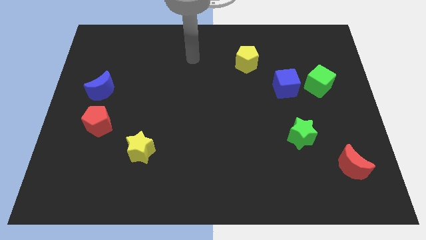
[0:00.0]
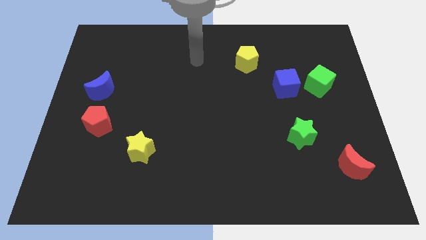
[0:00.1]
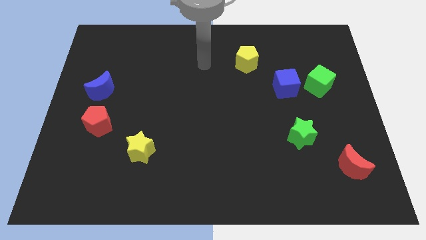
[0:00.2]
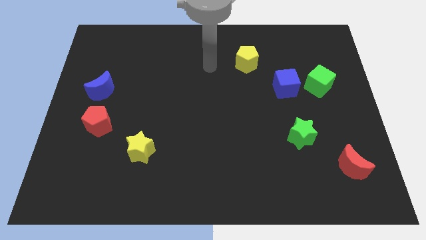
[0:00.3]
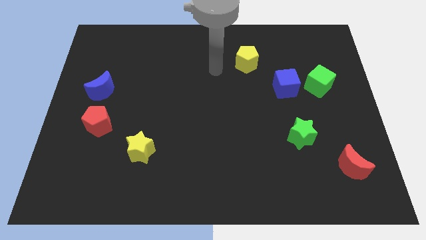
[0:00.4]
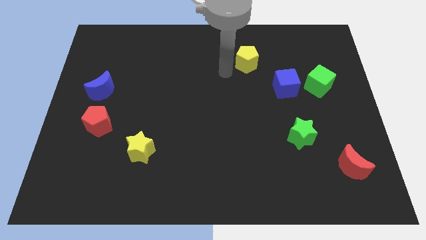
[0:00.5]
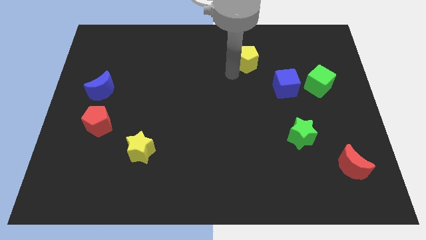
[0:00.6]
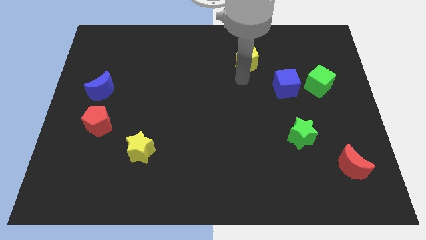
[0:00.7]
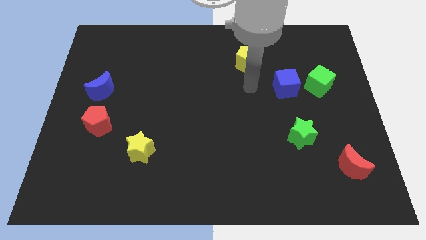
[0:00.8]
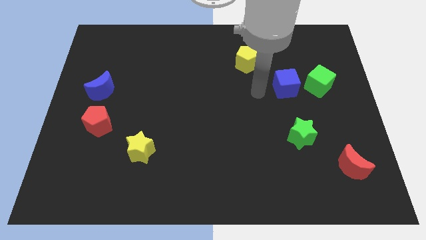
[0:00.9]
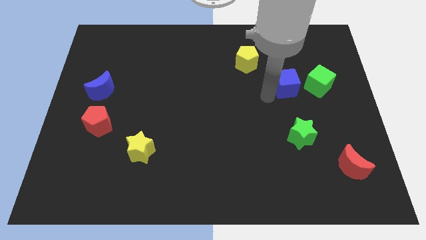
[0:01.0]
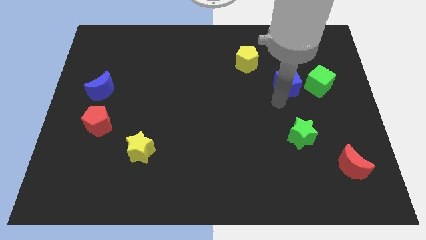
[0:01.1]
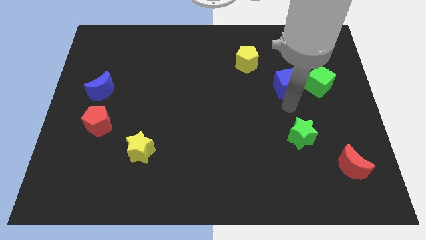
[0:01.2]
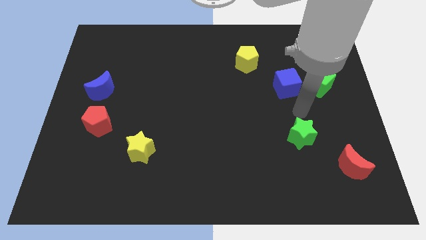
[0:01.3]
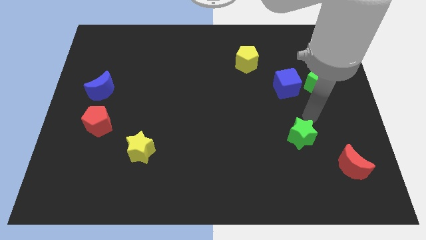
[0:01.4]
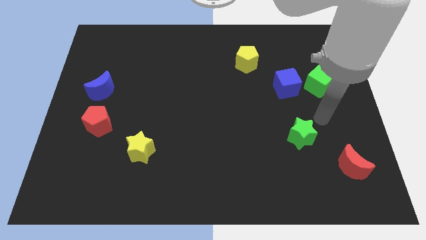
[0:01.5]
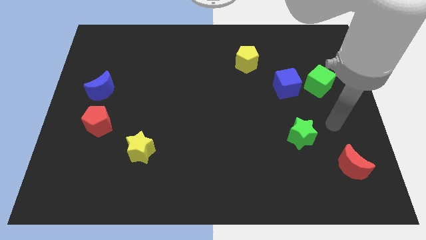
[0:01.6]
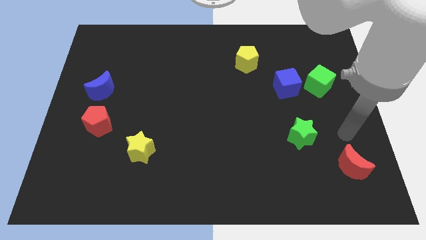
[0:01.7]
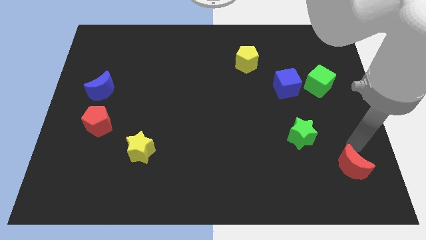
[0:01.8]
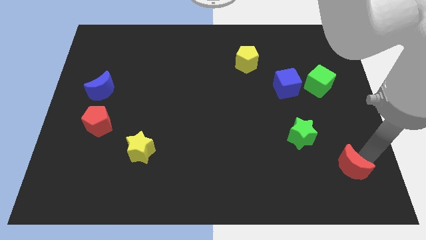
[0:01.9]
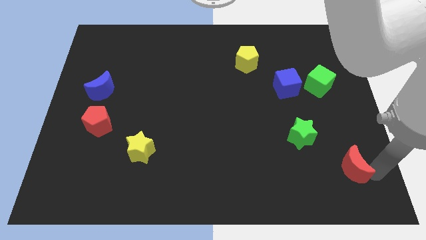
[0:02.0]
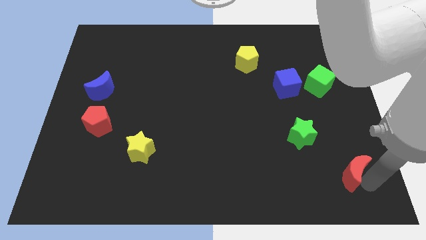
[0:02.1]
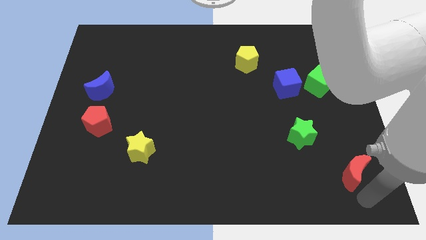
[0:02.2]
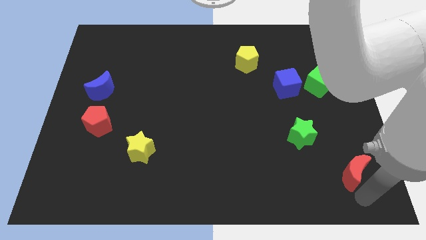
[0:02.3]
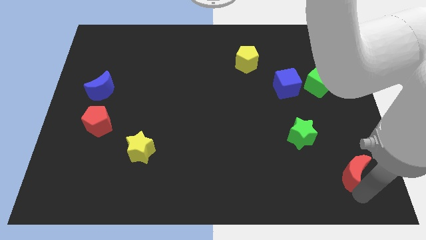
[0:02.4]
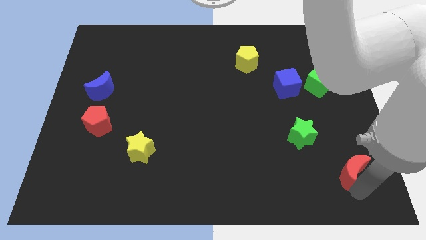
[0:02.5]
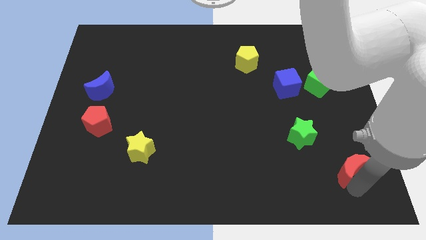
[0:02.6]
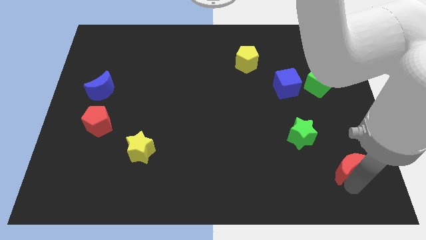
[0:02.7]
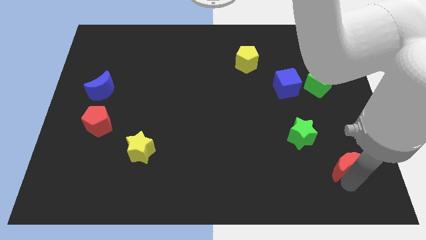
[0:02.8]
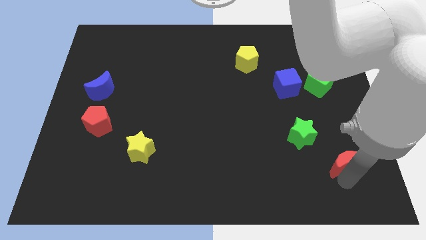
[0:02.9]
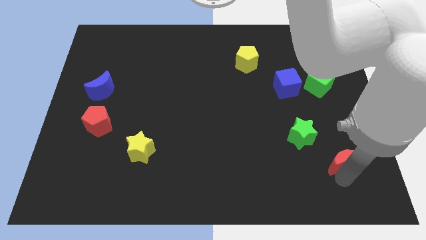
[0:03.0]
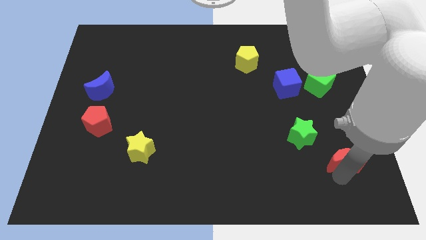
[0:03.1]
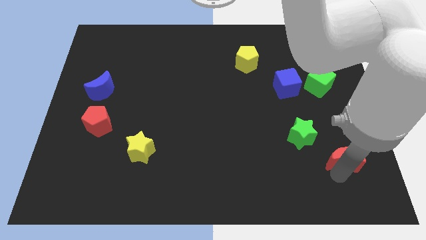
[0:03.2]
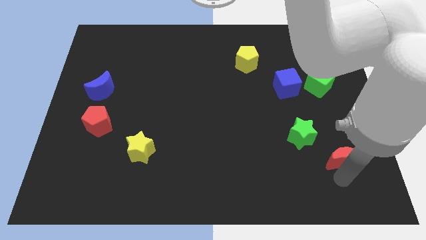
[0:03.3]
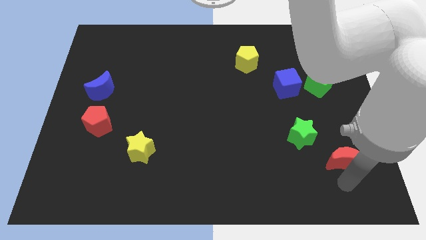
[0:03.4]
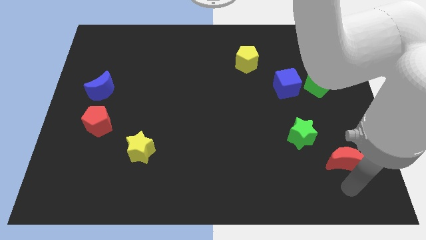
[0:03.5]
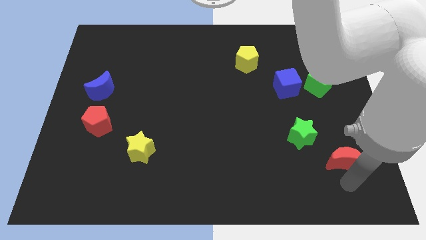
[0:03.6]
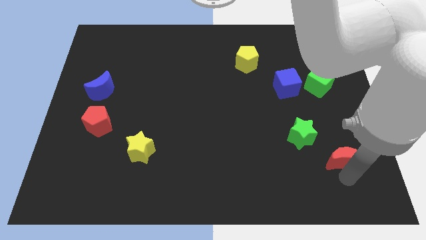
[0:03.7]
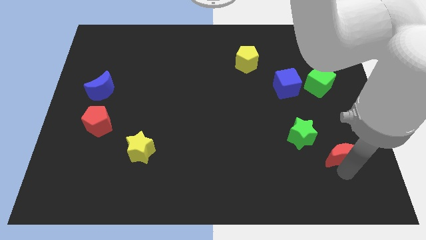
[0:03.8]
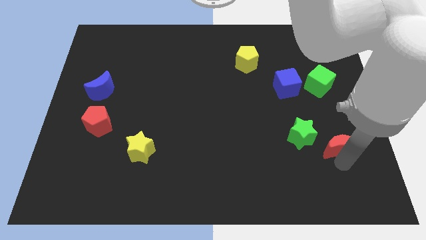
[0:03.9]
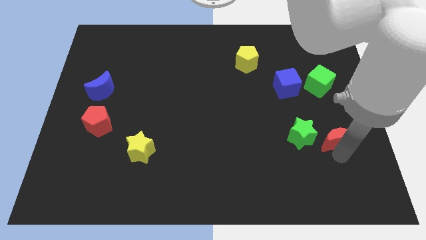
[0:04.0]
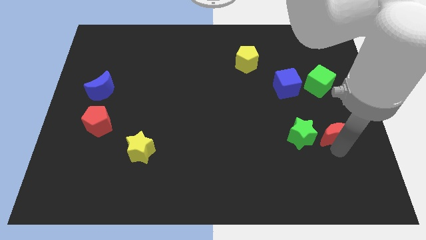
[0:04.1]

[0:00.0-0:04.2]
slide the red moon up slightly

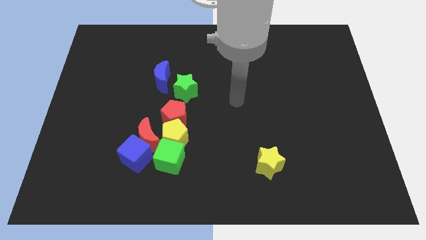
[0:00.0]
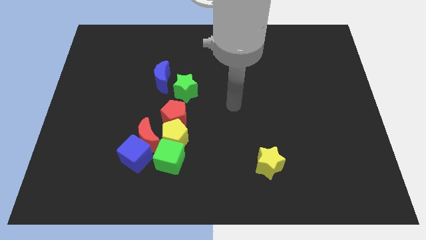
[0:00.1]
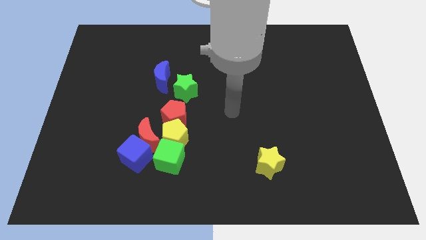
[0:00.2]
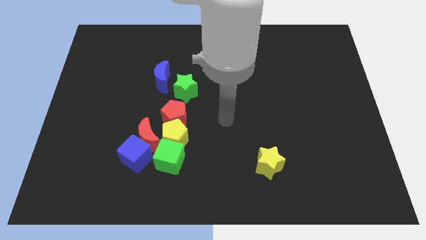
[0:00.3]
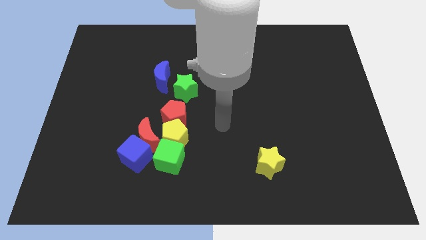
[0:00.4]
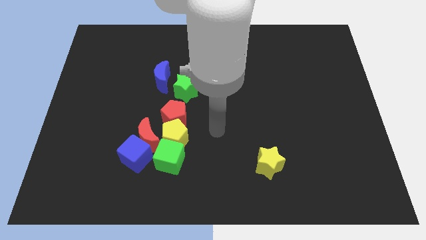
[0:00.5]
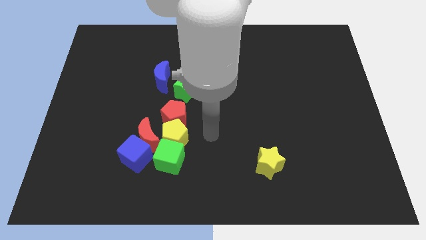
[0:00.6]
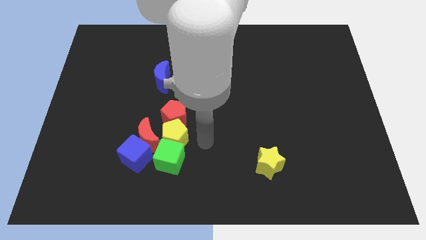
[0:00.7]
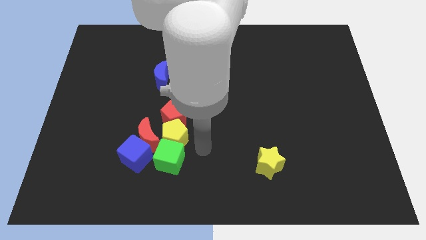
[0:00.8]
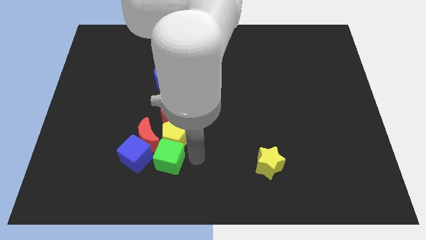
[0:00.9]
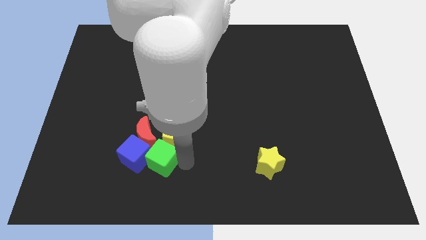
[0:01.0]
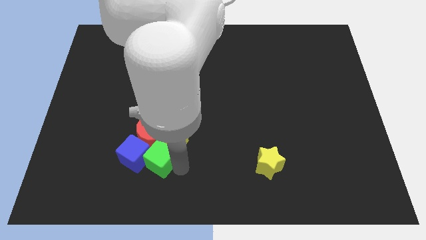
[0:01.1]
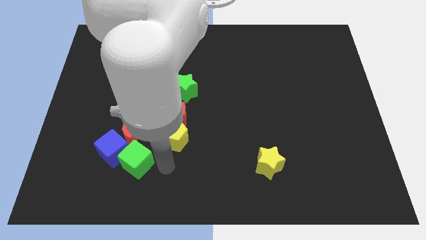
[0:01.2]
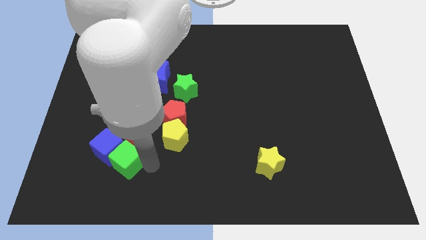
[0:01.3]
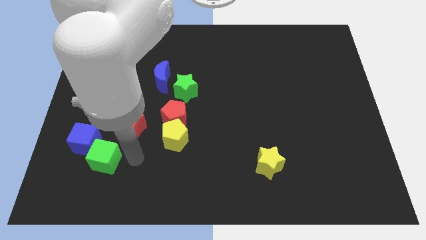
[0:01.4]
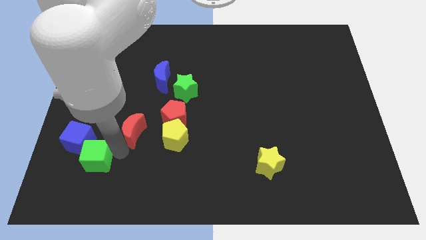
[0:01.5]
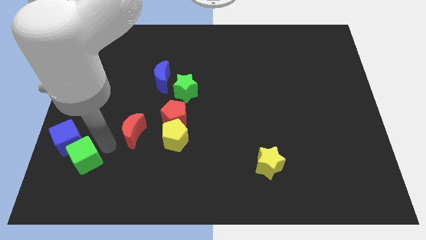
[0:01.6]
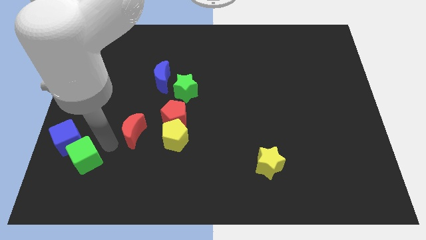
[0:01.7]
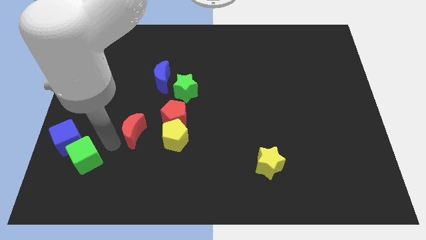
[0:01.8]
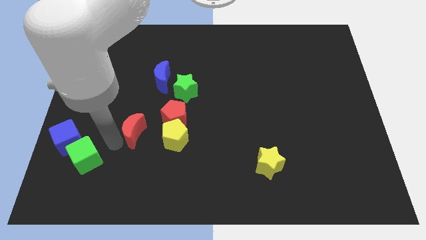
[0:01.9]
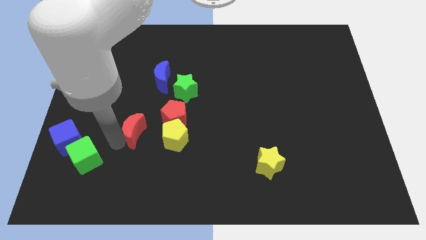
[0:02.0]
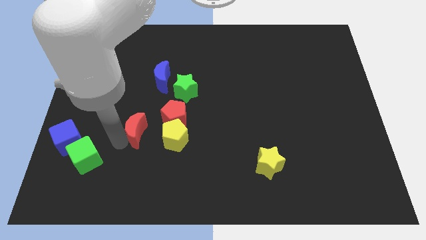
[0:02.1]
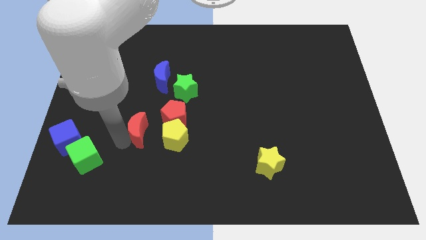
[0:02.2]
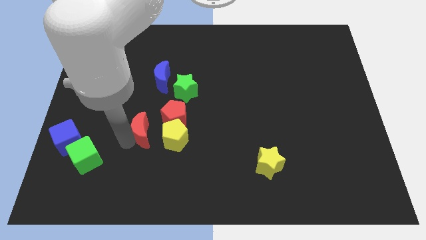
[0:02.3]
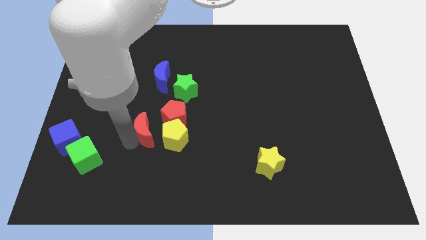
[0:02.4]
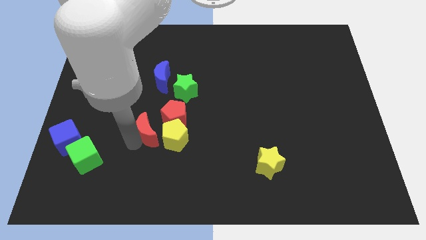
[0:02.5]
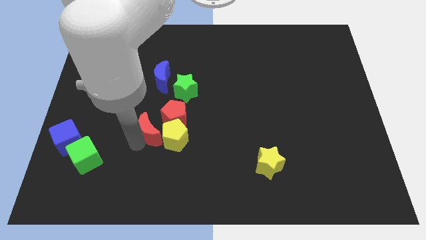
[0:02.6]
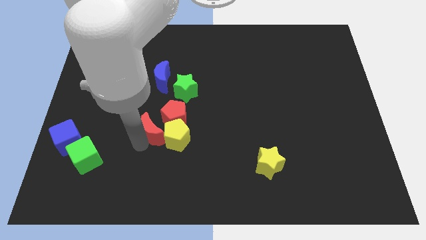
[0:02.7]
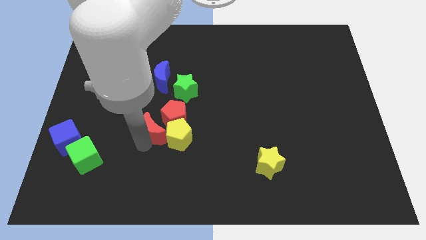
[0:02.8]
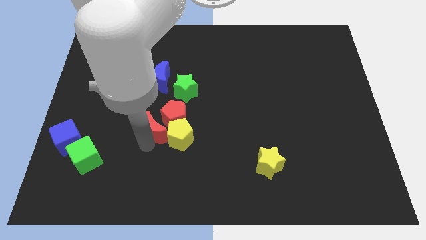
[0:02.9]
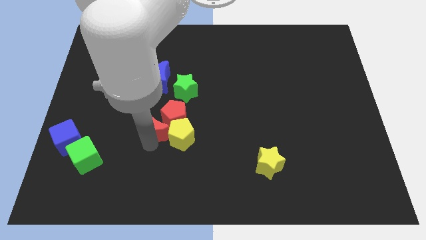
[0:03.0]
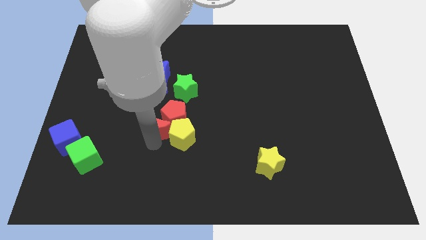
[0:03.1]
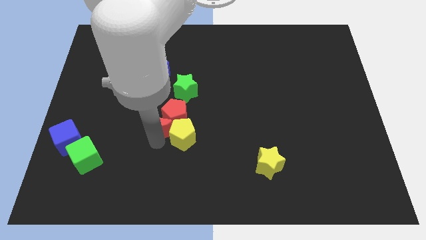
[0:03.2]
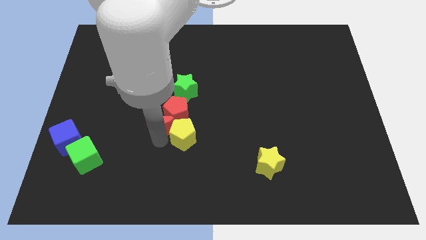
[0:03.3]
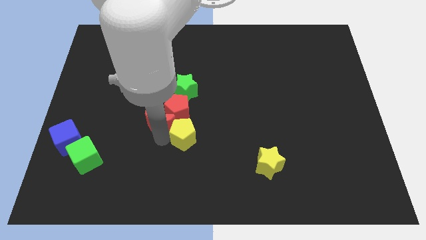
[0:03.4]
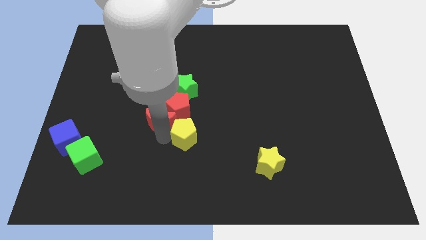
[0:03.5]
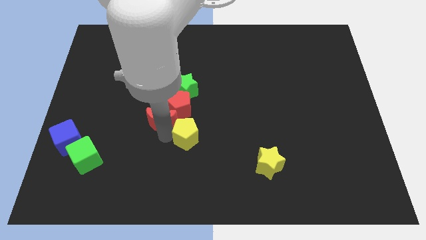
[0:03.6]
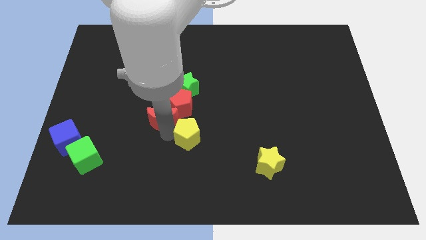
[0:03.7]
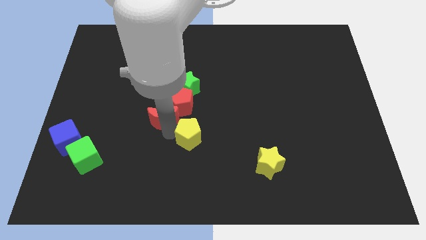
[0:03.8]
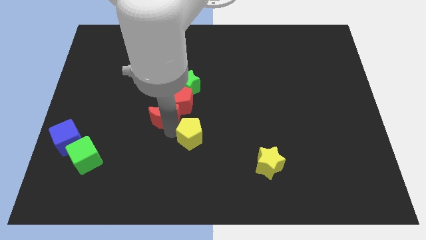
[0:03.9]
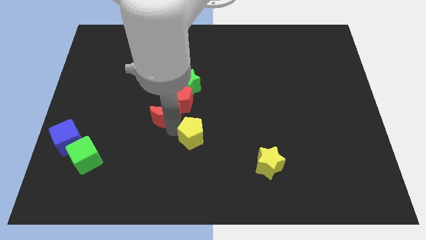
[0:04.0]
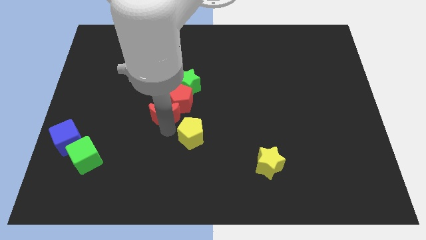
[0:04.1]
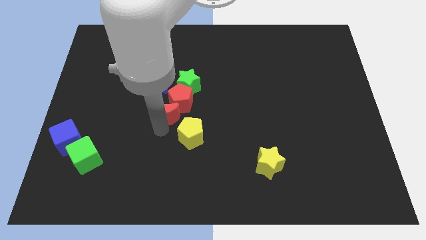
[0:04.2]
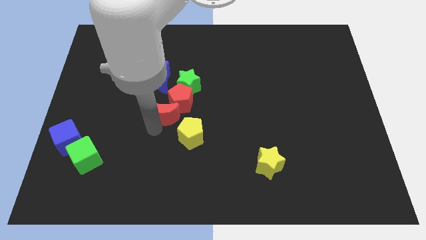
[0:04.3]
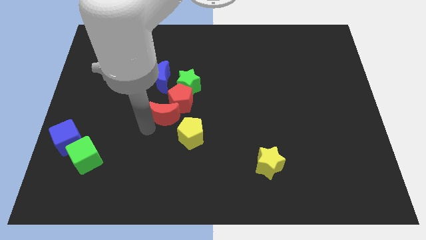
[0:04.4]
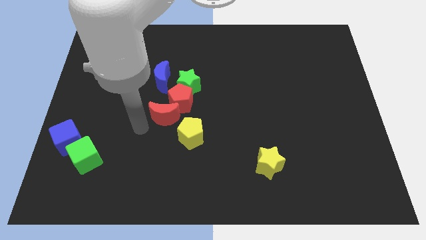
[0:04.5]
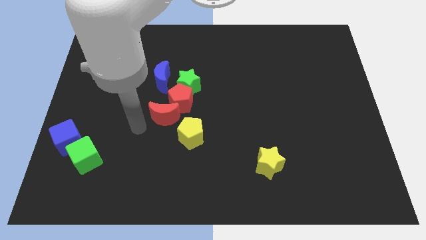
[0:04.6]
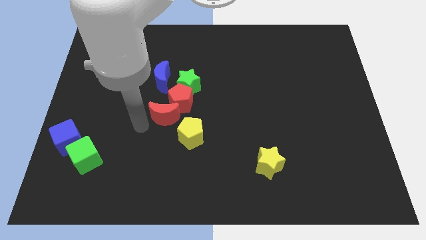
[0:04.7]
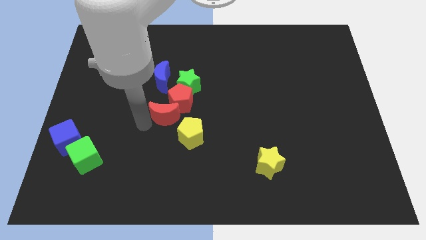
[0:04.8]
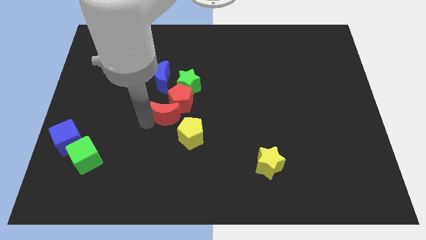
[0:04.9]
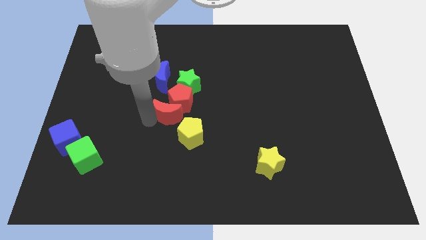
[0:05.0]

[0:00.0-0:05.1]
slide the red moon a little bit up and right
